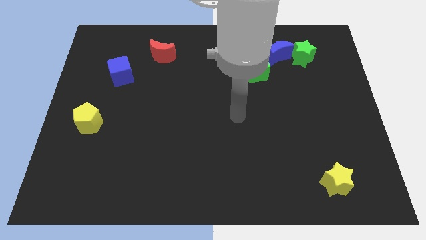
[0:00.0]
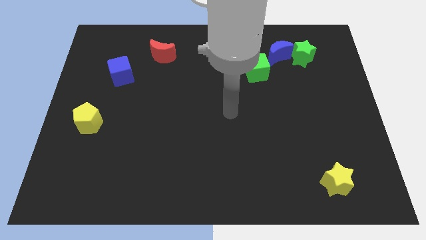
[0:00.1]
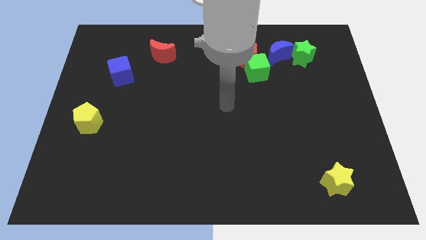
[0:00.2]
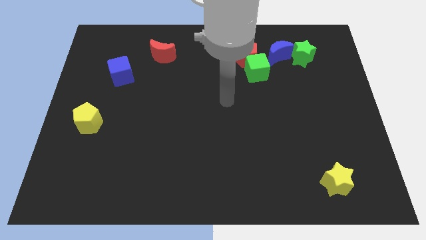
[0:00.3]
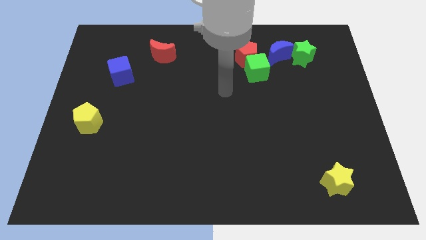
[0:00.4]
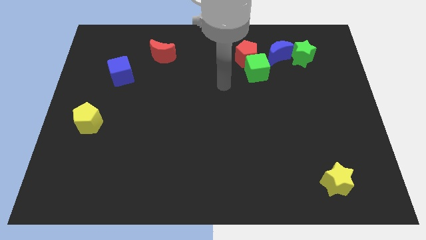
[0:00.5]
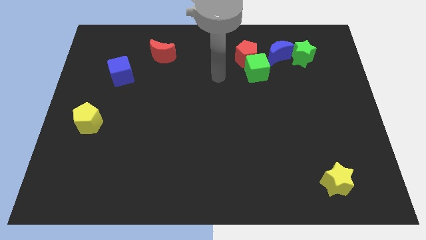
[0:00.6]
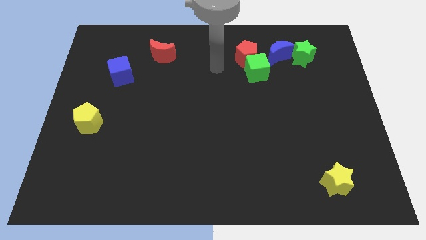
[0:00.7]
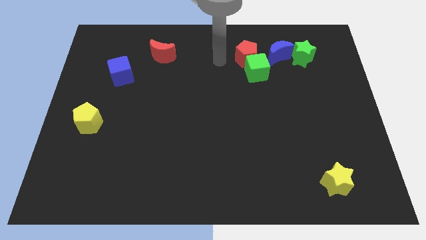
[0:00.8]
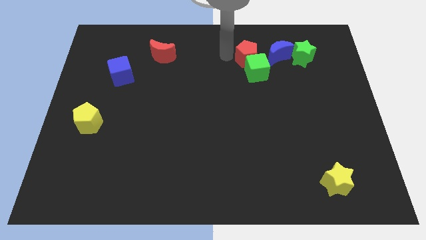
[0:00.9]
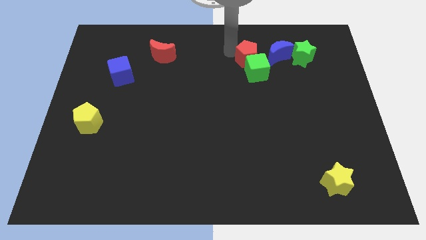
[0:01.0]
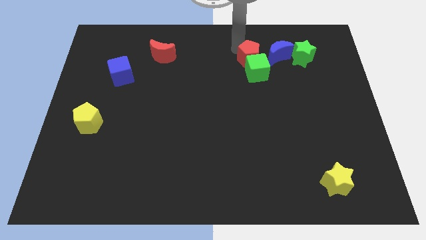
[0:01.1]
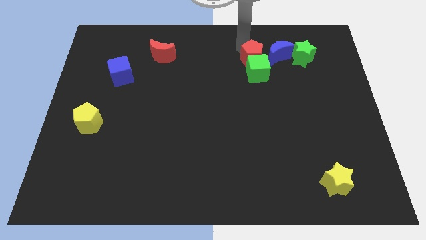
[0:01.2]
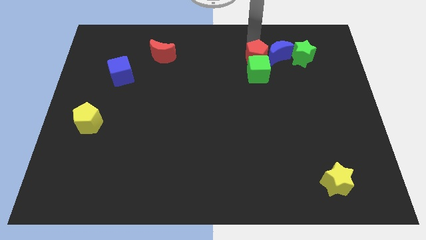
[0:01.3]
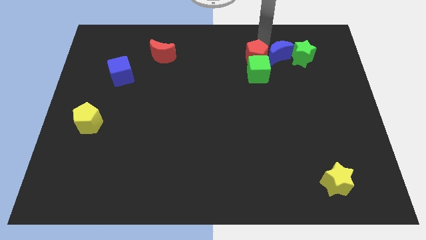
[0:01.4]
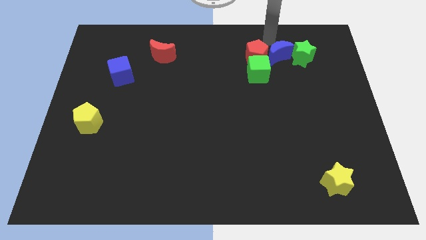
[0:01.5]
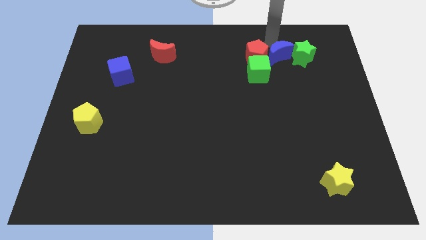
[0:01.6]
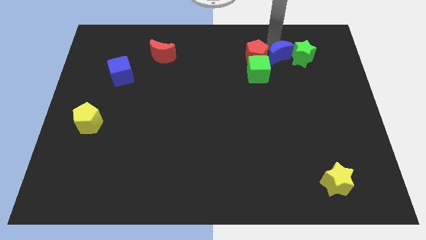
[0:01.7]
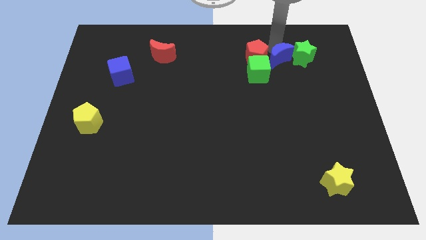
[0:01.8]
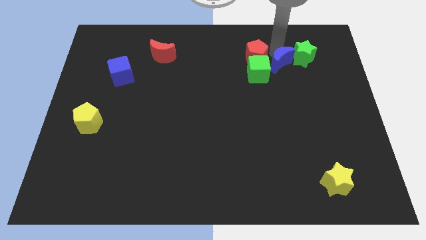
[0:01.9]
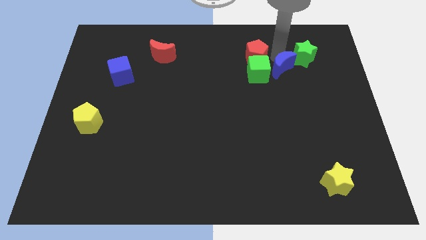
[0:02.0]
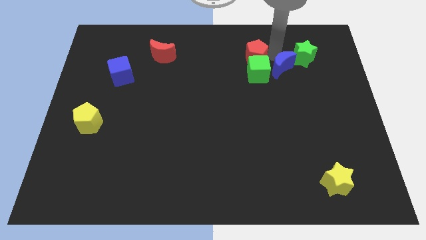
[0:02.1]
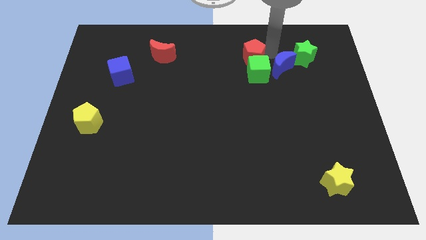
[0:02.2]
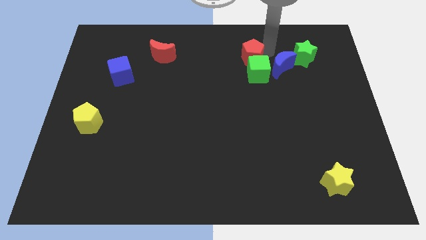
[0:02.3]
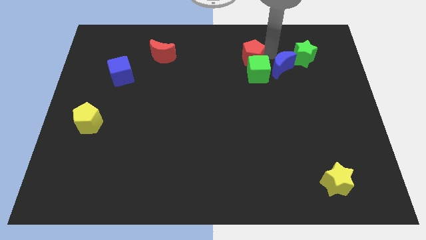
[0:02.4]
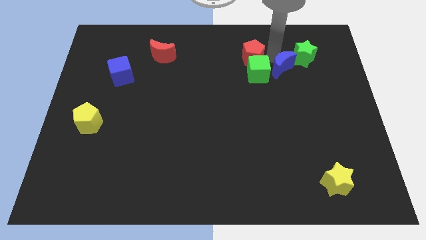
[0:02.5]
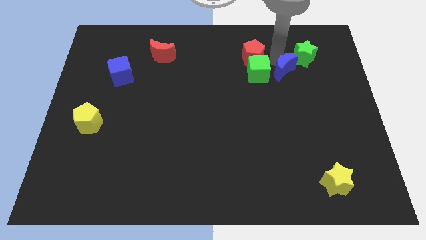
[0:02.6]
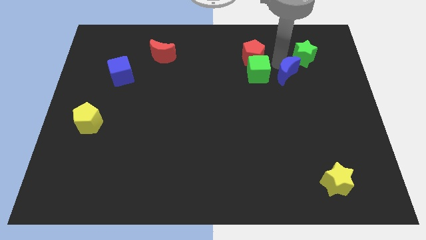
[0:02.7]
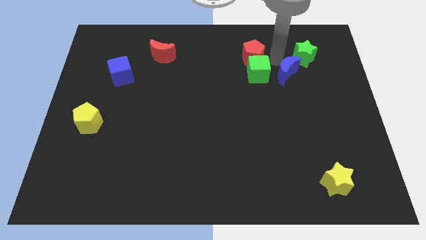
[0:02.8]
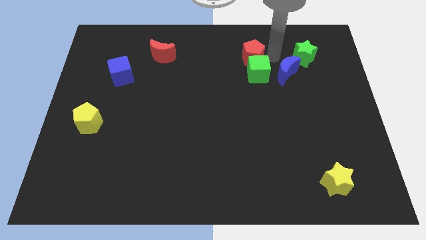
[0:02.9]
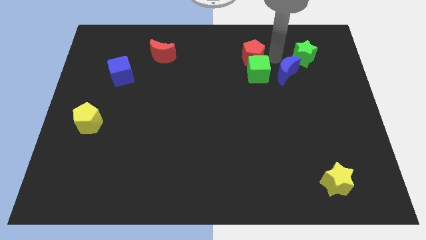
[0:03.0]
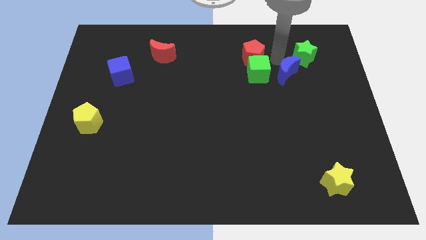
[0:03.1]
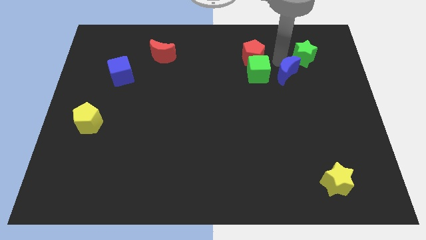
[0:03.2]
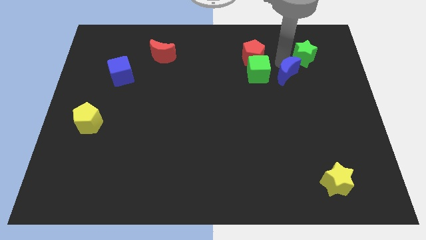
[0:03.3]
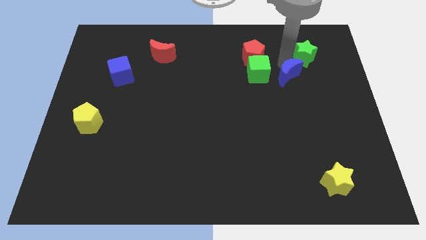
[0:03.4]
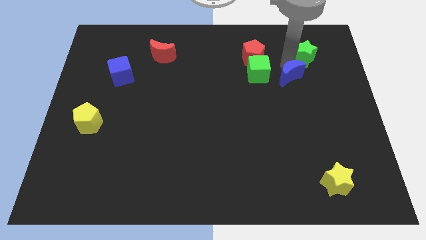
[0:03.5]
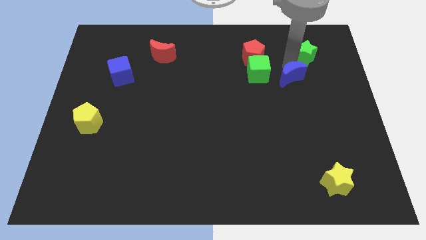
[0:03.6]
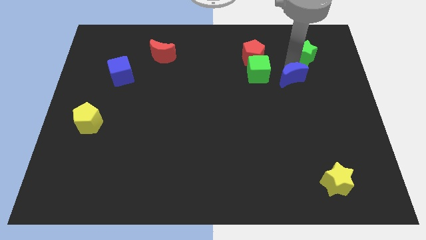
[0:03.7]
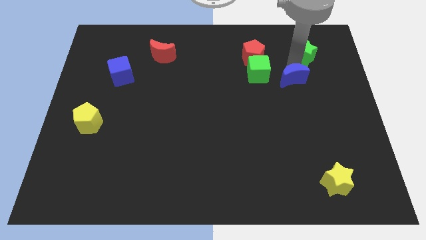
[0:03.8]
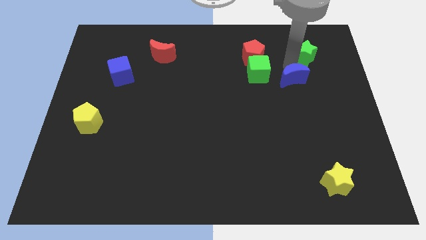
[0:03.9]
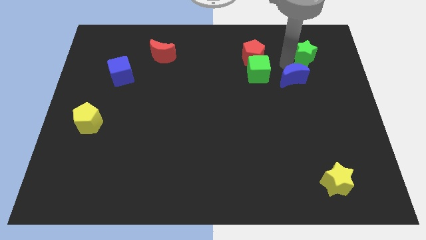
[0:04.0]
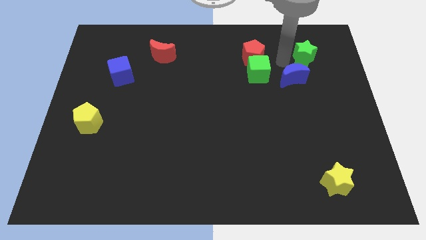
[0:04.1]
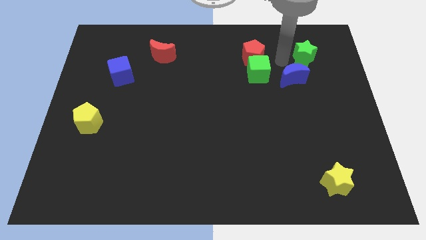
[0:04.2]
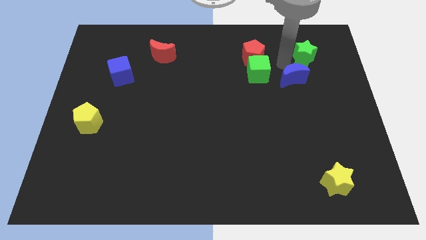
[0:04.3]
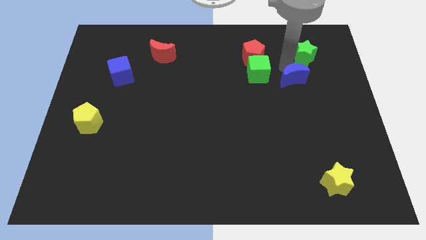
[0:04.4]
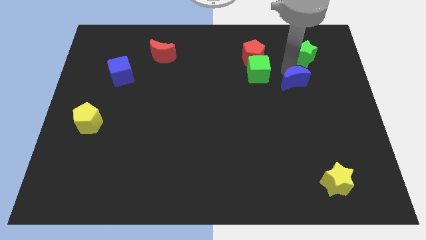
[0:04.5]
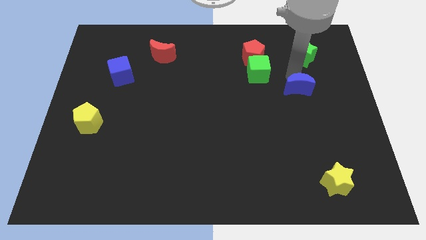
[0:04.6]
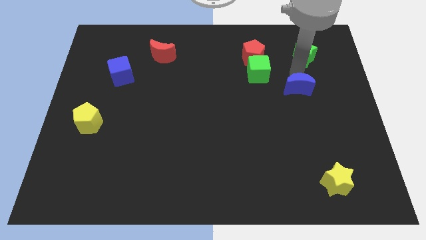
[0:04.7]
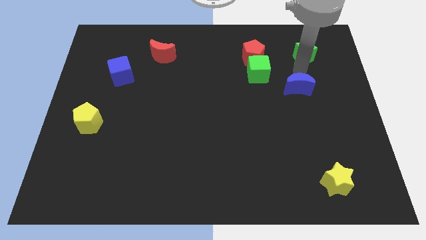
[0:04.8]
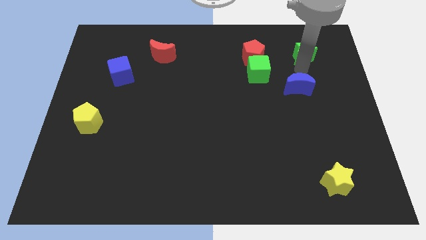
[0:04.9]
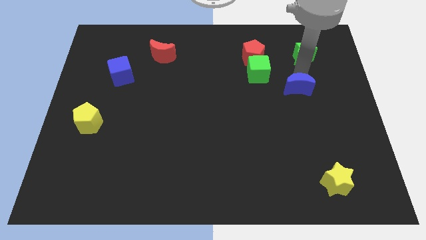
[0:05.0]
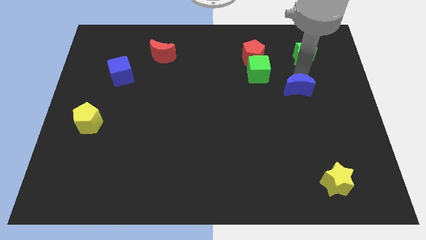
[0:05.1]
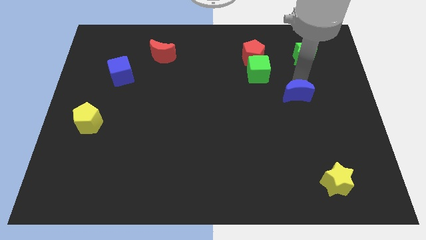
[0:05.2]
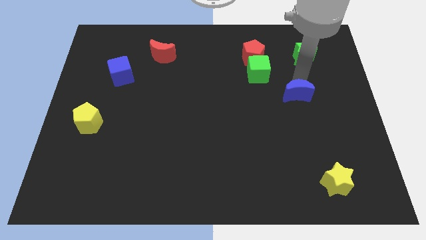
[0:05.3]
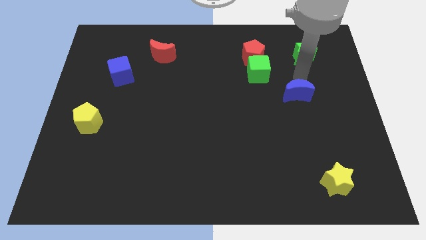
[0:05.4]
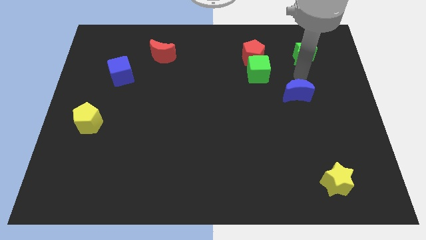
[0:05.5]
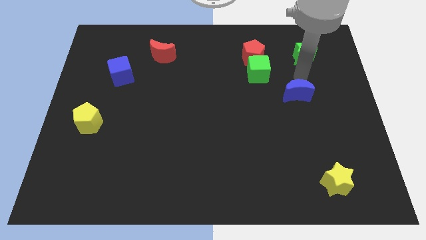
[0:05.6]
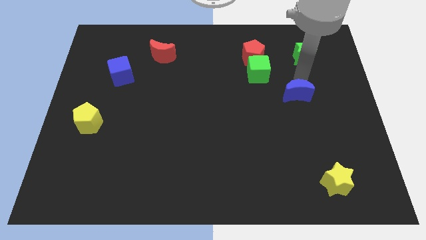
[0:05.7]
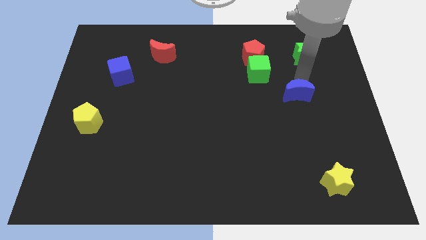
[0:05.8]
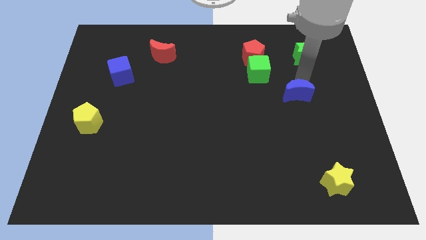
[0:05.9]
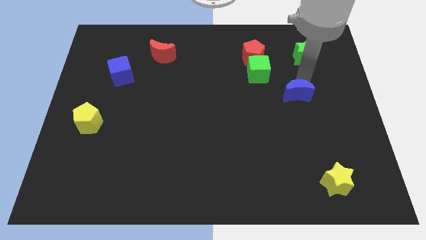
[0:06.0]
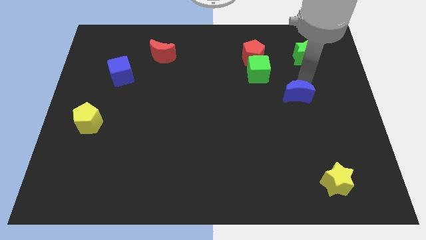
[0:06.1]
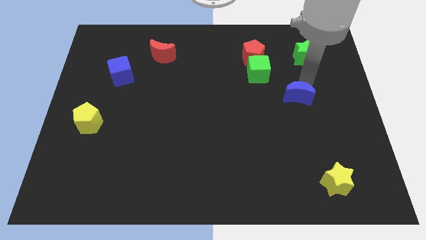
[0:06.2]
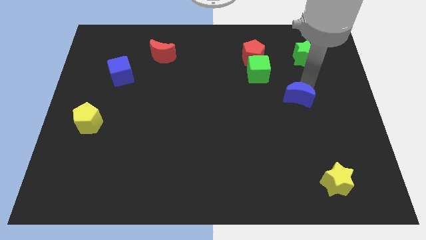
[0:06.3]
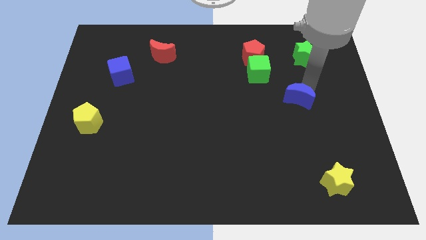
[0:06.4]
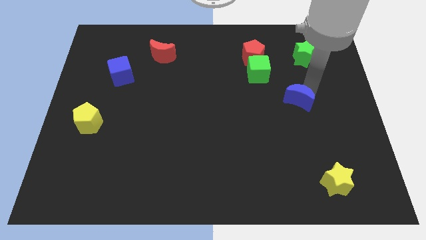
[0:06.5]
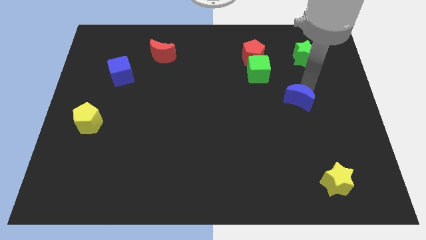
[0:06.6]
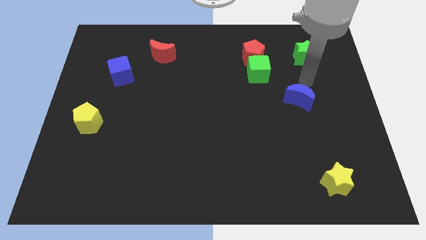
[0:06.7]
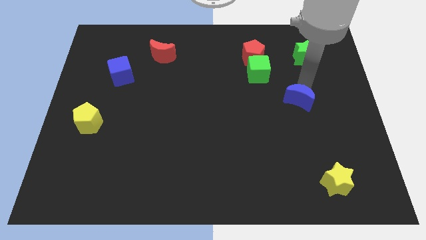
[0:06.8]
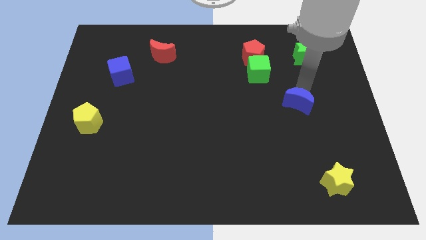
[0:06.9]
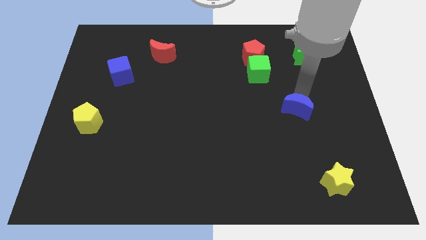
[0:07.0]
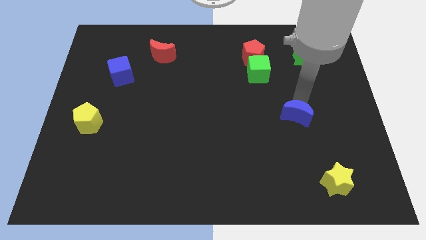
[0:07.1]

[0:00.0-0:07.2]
push the blue moon downwards

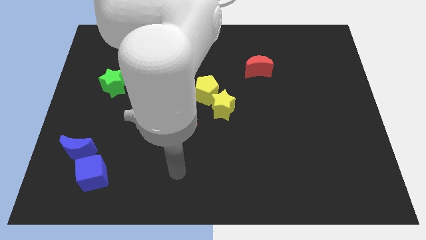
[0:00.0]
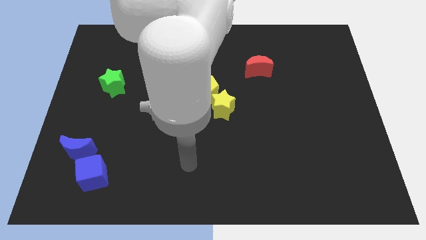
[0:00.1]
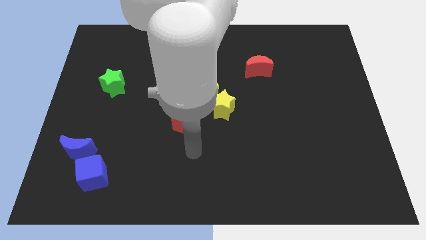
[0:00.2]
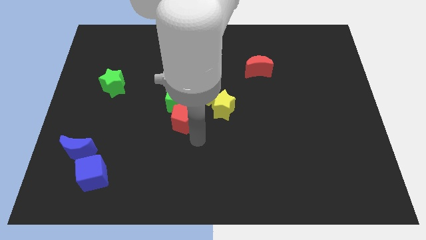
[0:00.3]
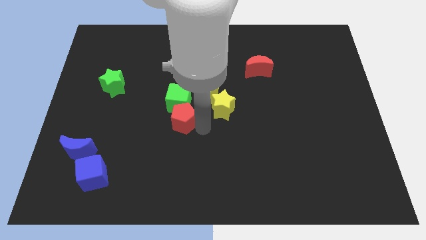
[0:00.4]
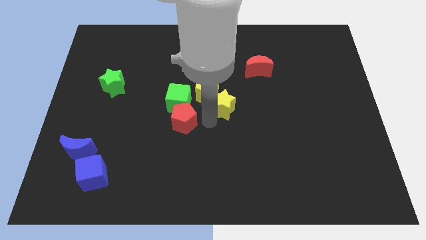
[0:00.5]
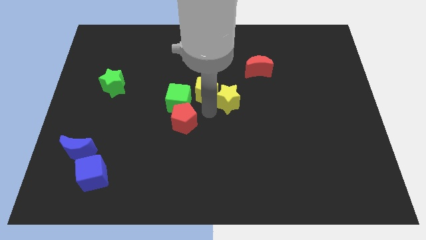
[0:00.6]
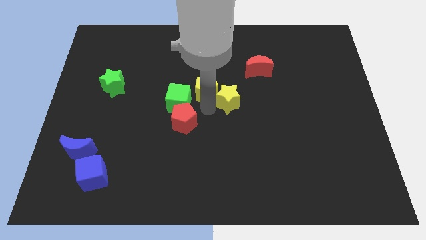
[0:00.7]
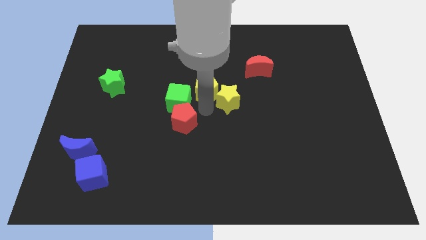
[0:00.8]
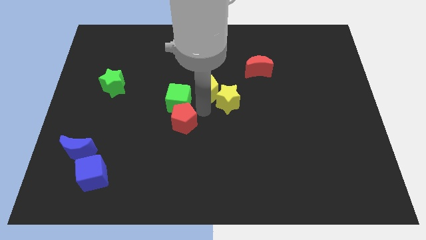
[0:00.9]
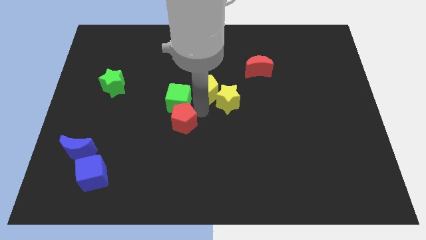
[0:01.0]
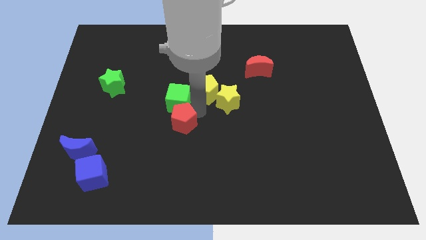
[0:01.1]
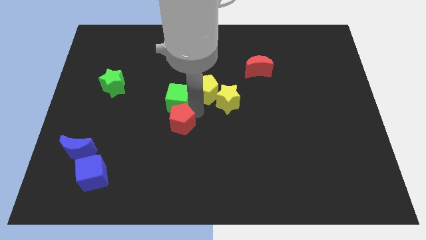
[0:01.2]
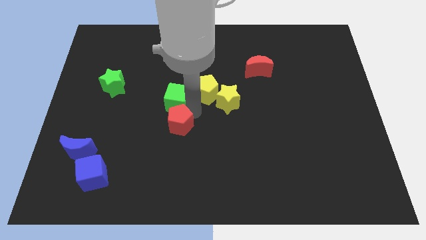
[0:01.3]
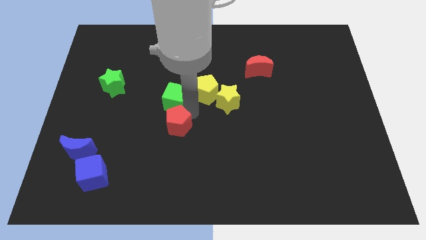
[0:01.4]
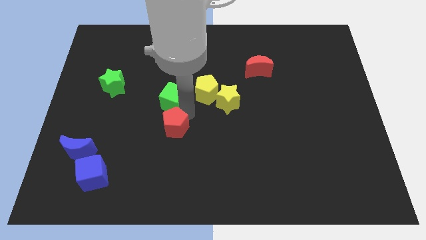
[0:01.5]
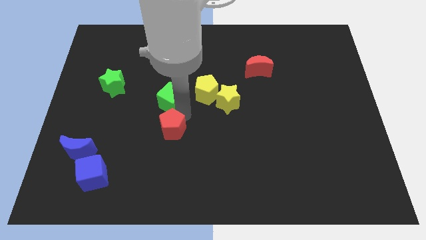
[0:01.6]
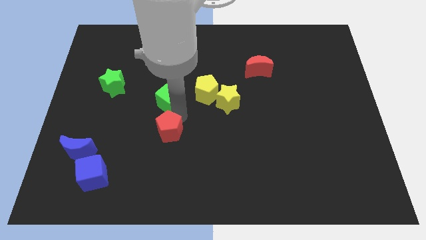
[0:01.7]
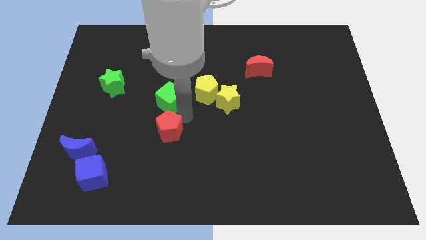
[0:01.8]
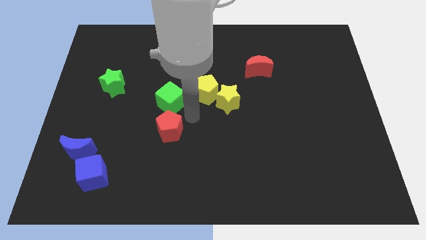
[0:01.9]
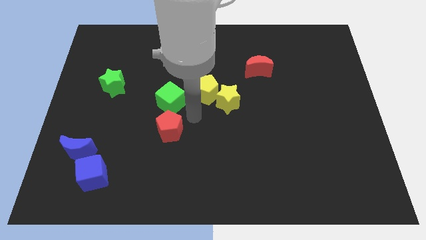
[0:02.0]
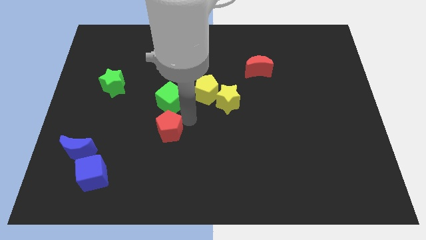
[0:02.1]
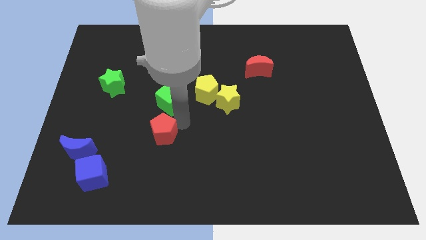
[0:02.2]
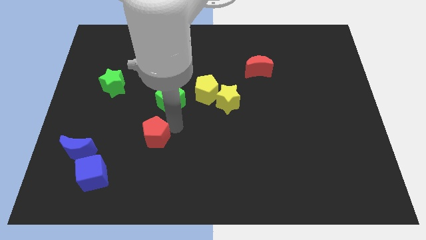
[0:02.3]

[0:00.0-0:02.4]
slightly push the red pentagon down and to the left
